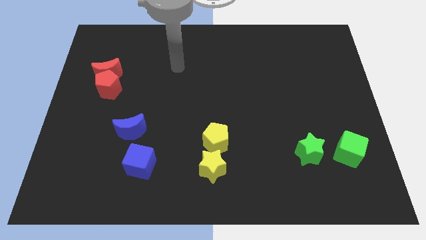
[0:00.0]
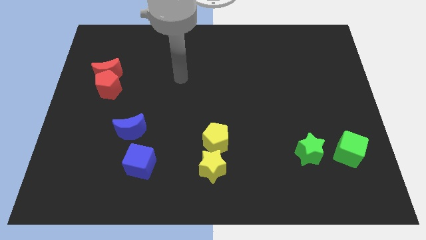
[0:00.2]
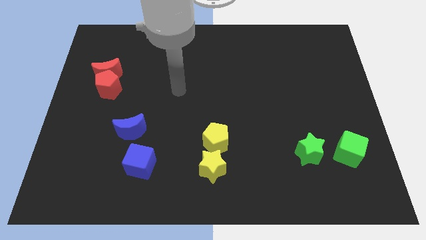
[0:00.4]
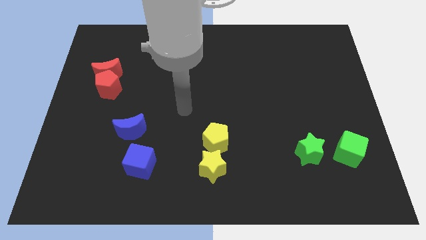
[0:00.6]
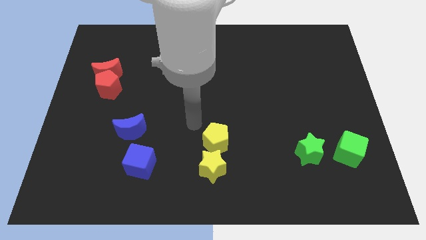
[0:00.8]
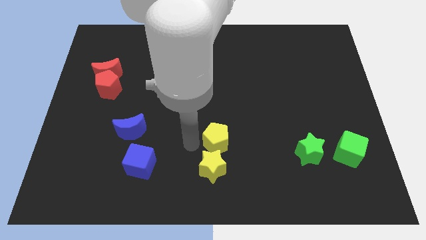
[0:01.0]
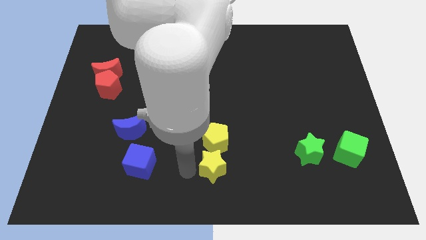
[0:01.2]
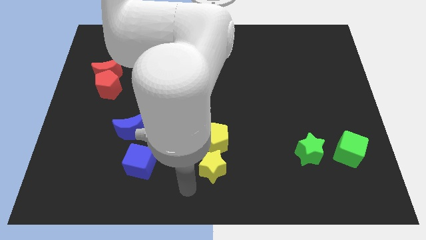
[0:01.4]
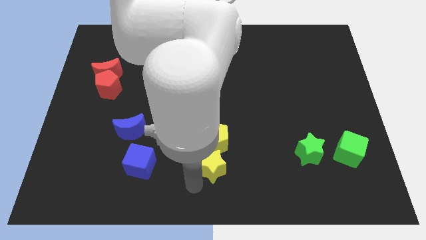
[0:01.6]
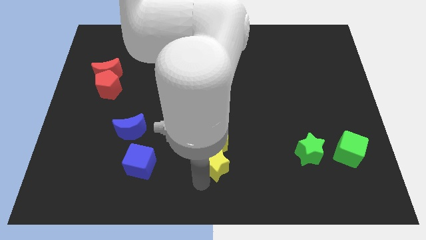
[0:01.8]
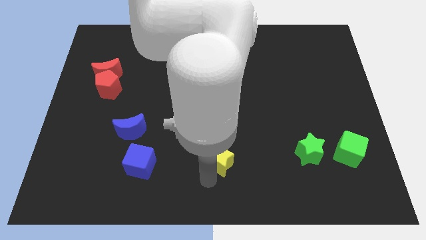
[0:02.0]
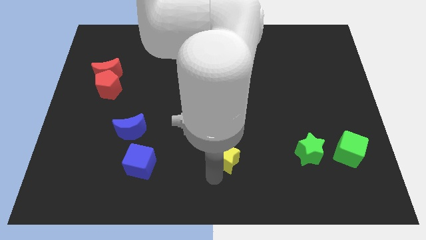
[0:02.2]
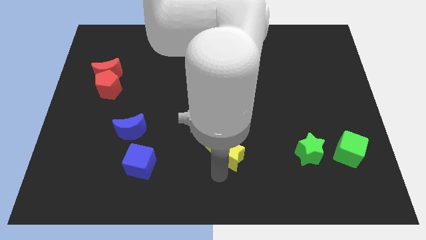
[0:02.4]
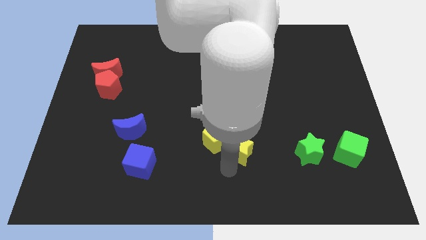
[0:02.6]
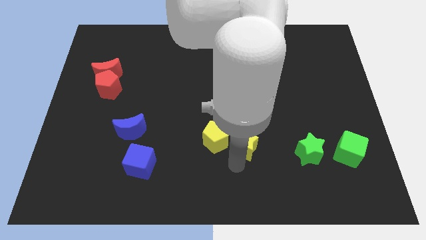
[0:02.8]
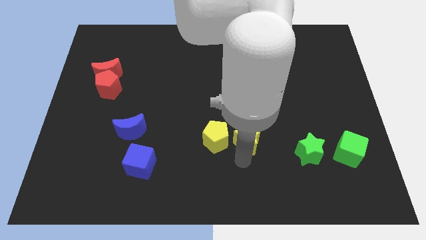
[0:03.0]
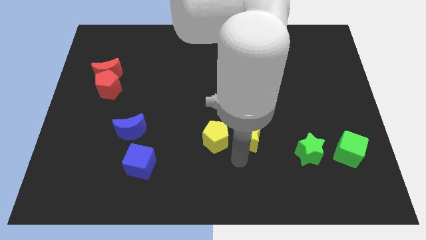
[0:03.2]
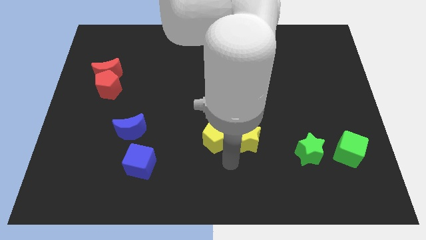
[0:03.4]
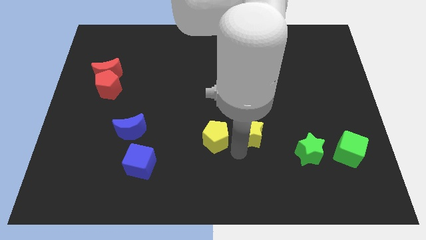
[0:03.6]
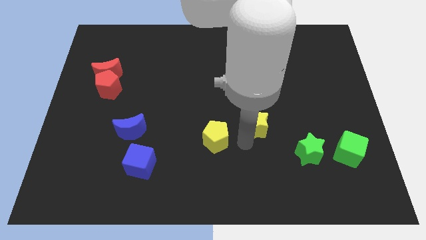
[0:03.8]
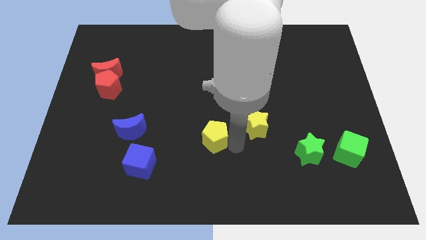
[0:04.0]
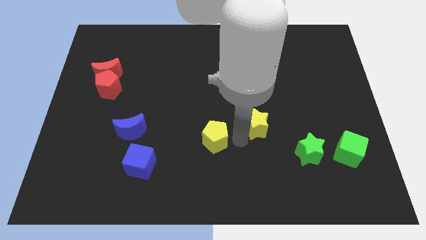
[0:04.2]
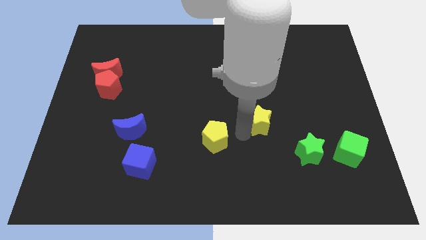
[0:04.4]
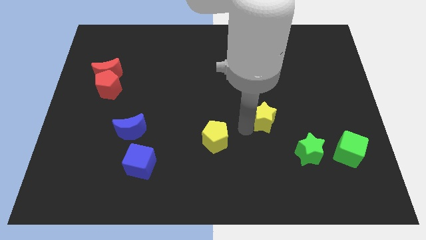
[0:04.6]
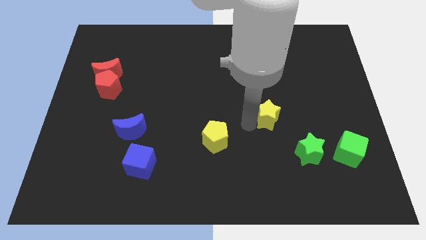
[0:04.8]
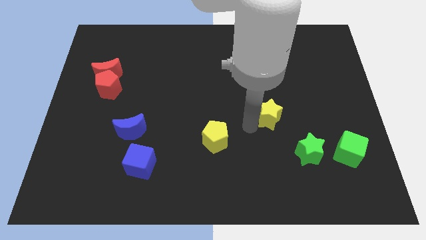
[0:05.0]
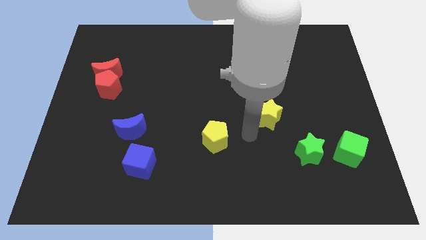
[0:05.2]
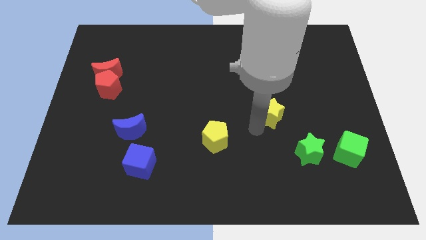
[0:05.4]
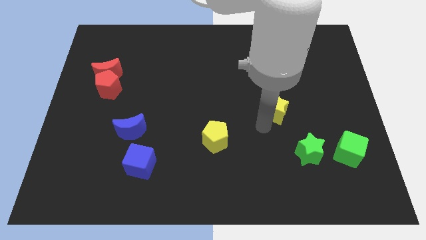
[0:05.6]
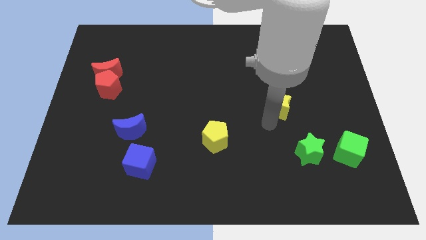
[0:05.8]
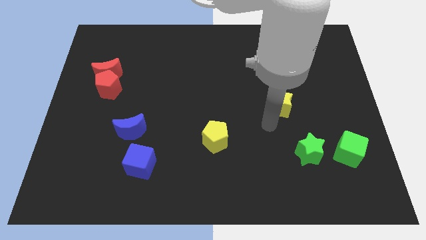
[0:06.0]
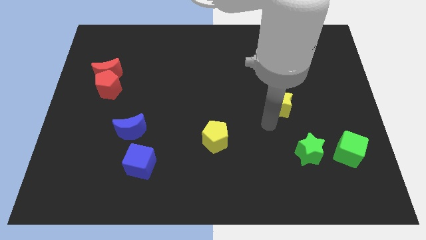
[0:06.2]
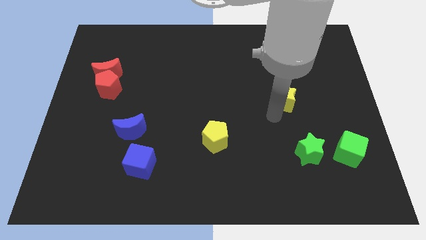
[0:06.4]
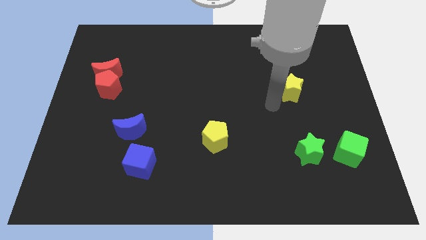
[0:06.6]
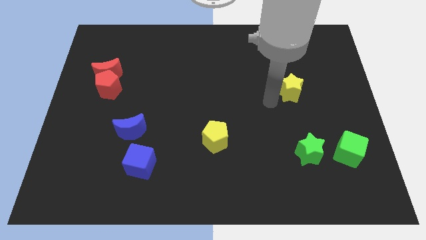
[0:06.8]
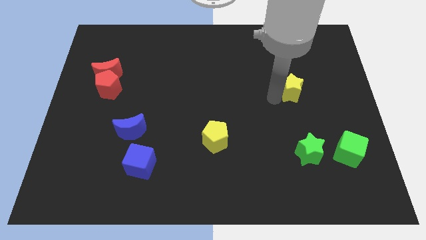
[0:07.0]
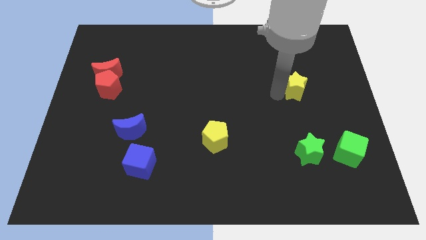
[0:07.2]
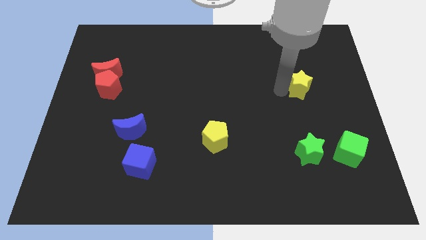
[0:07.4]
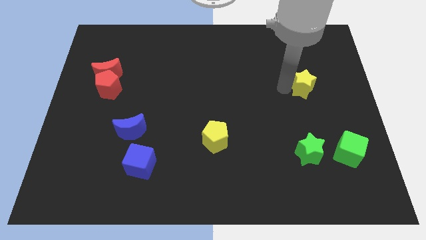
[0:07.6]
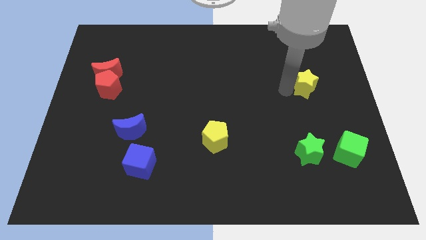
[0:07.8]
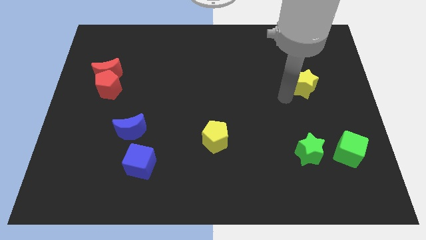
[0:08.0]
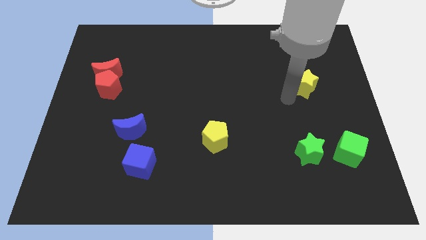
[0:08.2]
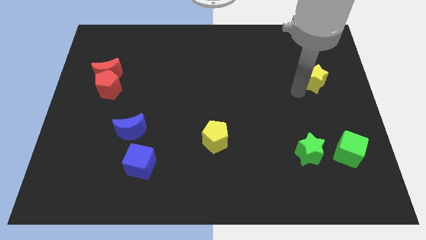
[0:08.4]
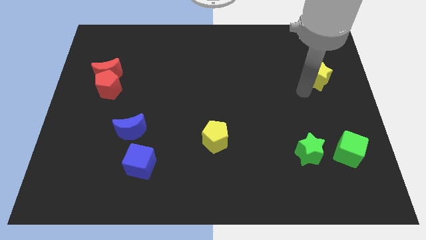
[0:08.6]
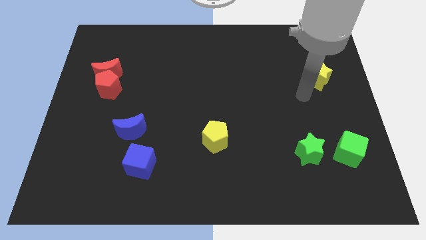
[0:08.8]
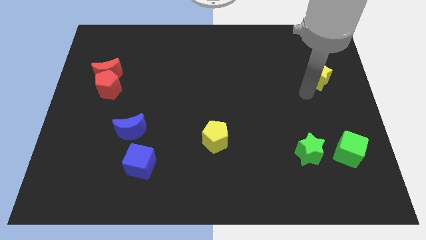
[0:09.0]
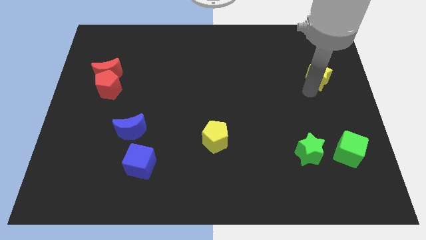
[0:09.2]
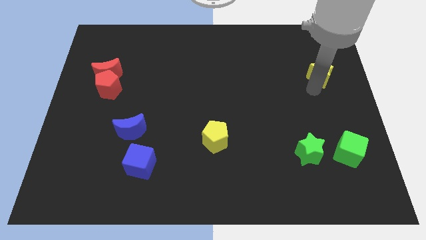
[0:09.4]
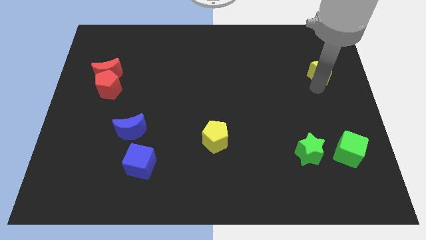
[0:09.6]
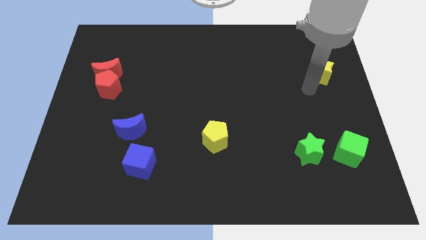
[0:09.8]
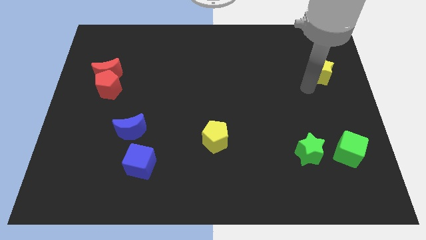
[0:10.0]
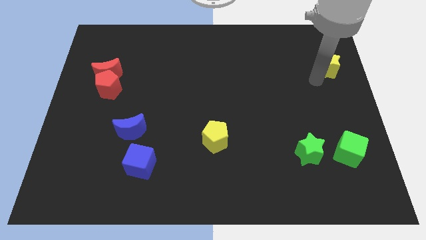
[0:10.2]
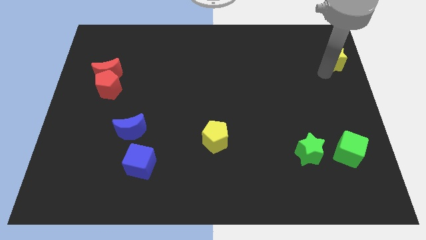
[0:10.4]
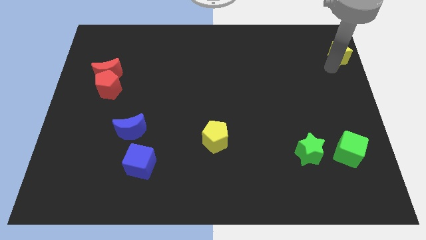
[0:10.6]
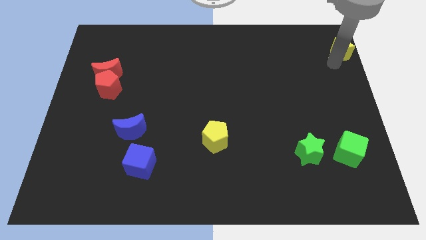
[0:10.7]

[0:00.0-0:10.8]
slide the yellow star to the top right
